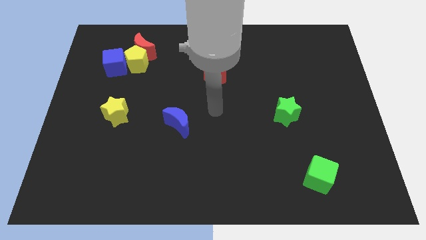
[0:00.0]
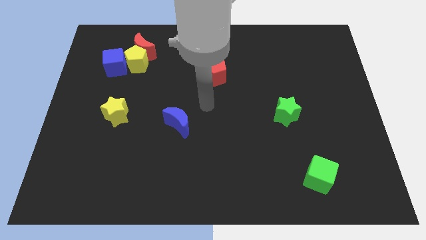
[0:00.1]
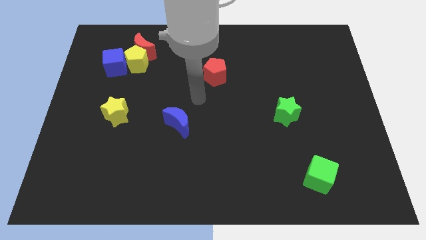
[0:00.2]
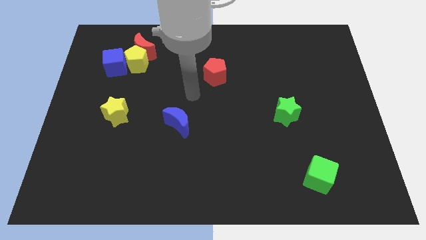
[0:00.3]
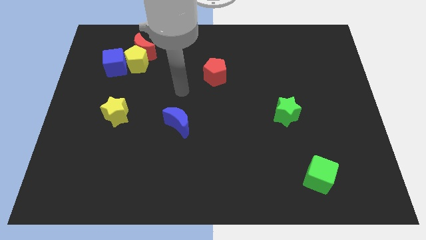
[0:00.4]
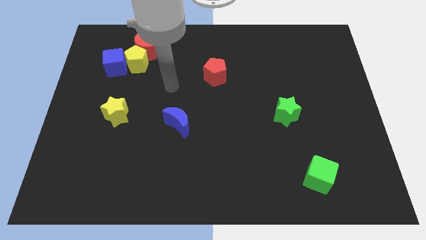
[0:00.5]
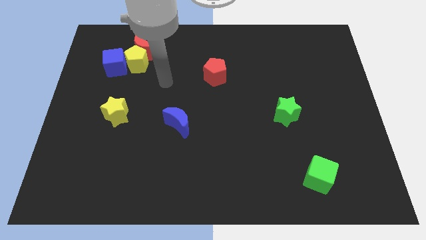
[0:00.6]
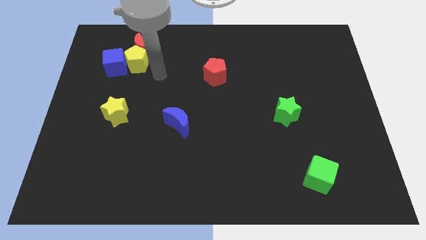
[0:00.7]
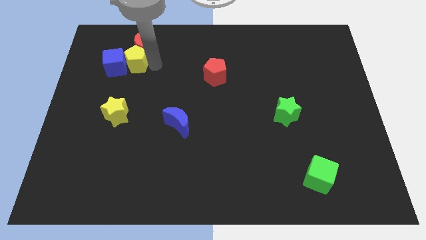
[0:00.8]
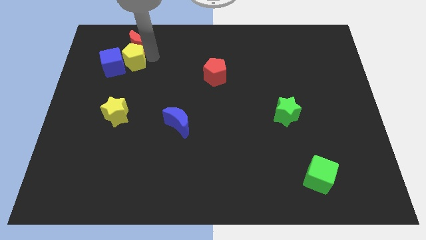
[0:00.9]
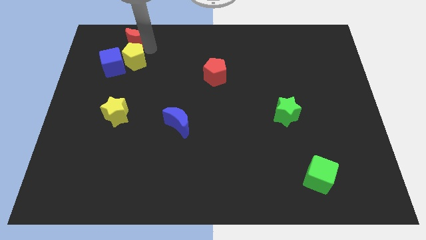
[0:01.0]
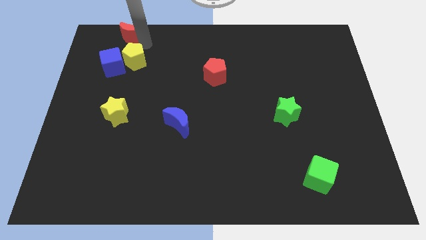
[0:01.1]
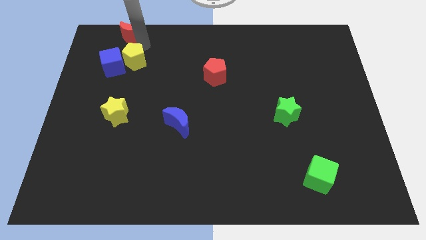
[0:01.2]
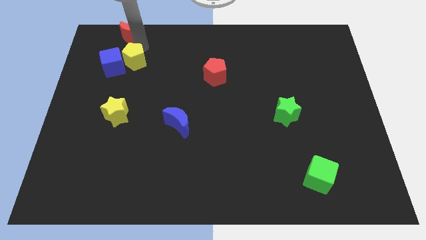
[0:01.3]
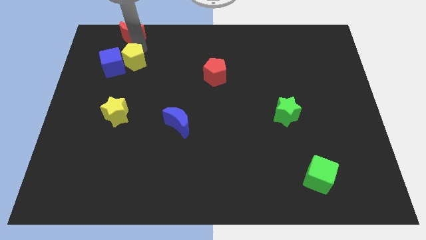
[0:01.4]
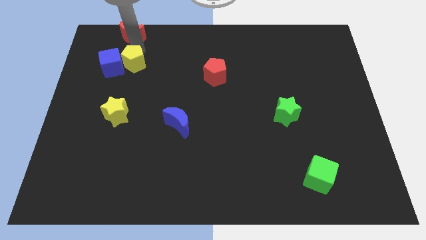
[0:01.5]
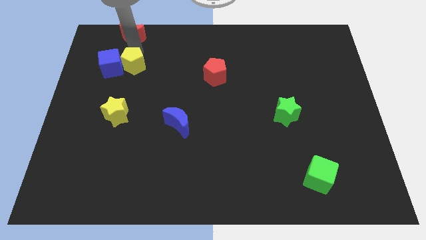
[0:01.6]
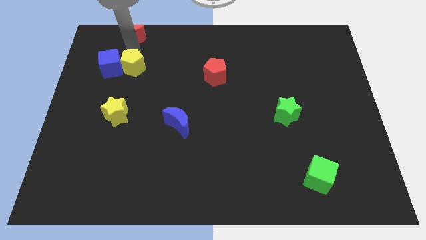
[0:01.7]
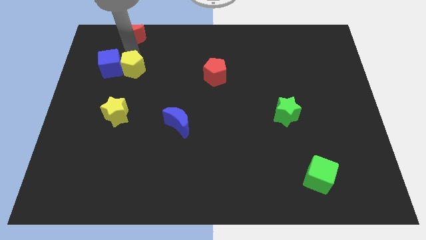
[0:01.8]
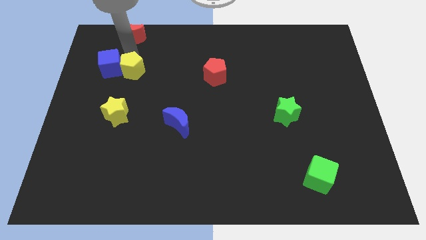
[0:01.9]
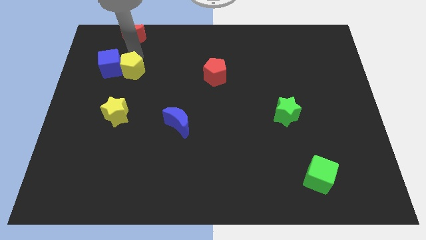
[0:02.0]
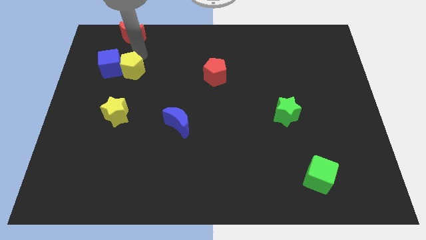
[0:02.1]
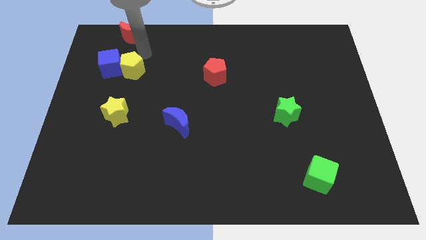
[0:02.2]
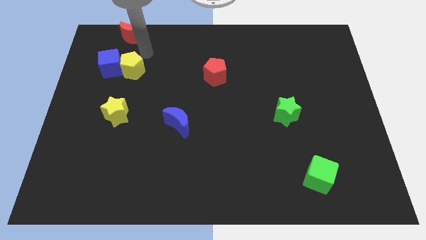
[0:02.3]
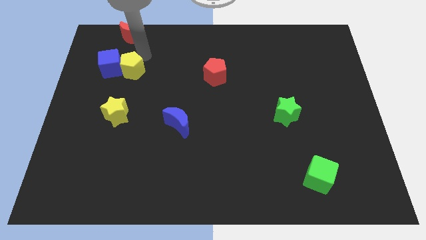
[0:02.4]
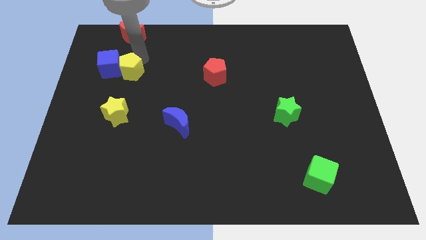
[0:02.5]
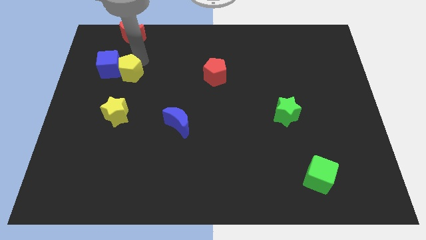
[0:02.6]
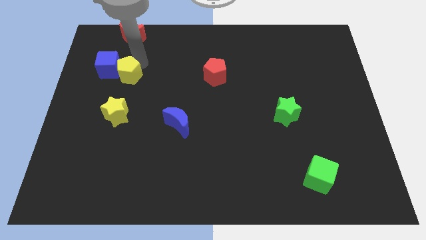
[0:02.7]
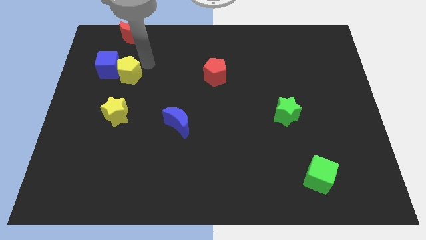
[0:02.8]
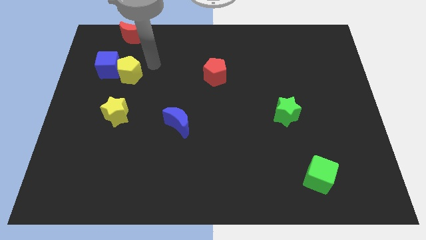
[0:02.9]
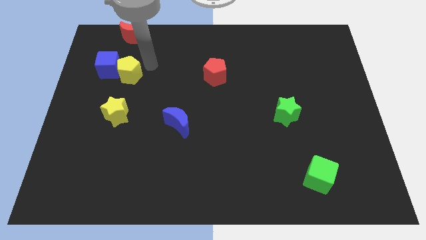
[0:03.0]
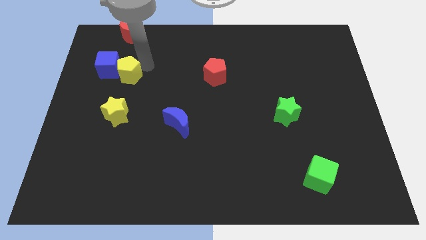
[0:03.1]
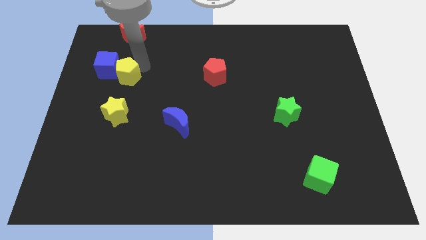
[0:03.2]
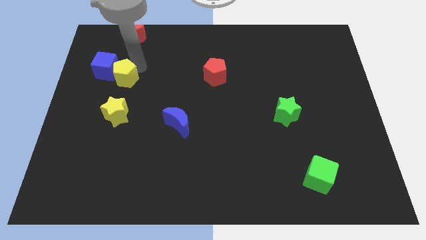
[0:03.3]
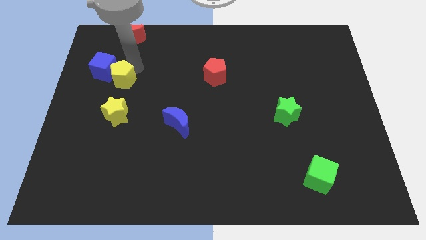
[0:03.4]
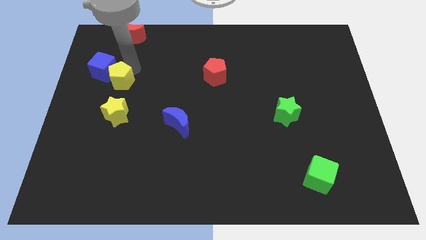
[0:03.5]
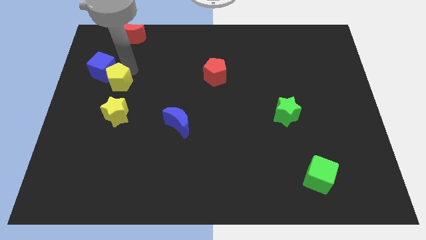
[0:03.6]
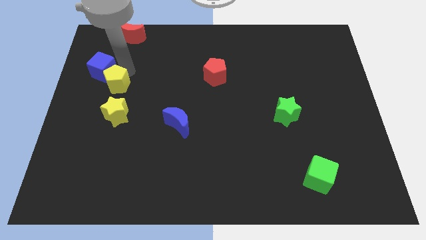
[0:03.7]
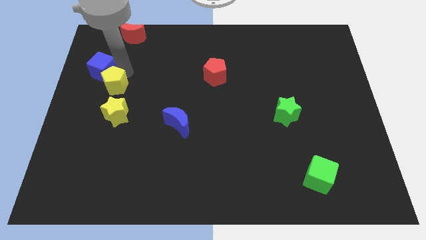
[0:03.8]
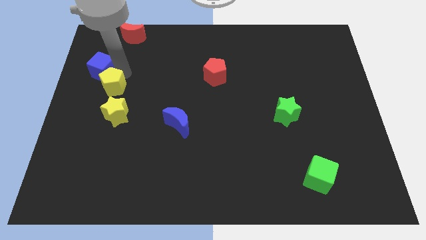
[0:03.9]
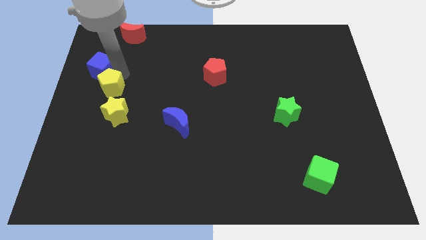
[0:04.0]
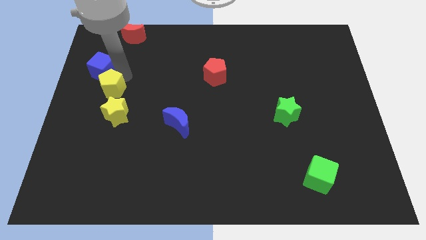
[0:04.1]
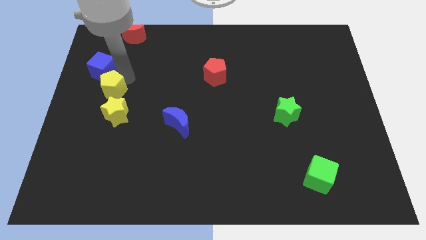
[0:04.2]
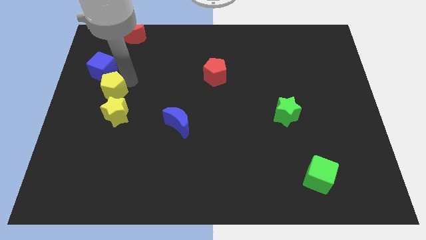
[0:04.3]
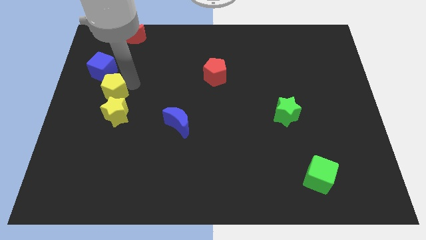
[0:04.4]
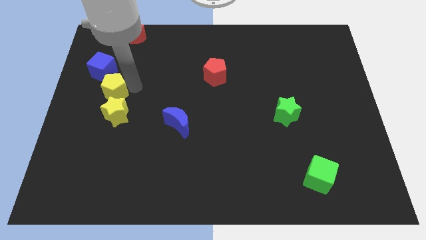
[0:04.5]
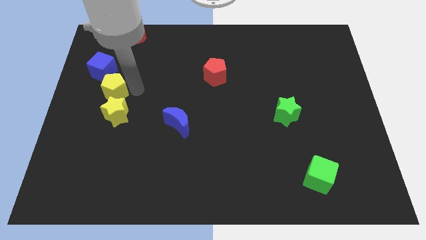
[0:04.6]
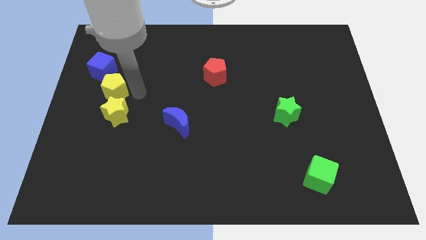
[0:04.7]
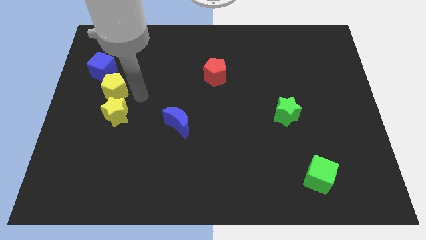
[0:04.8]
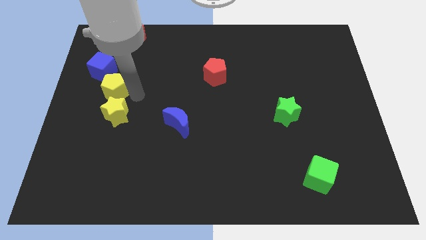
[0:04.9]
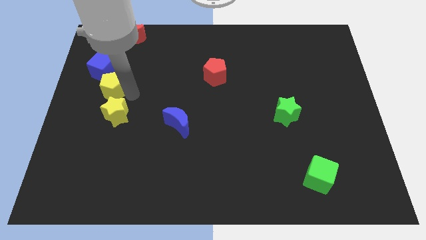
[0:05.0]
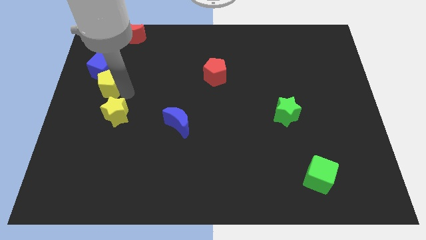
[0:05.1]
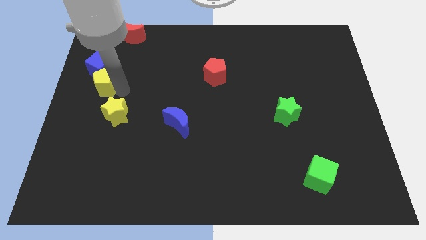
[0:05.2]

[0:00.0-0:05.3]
slide the yellow pentagon to the left side

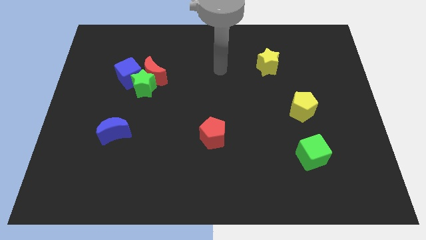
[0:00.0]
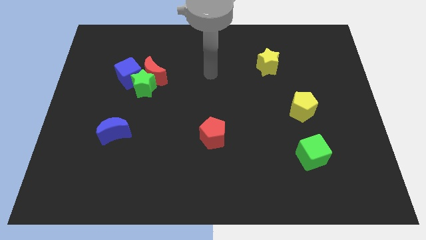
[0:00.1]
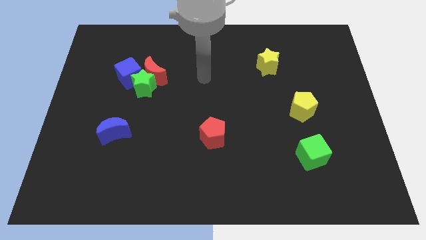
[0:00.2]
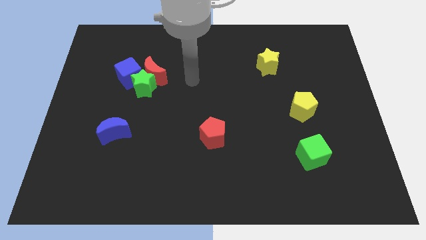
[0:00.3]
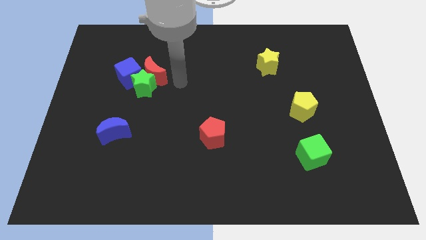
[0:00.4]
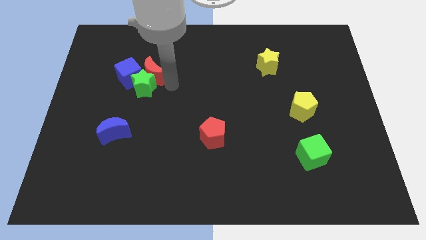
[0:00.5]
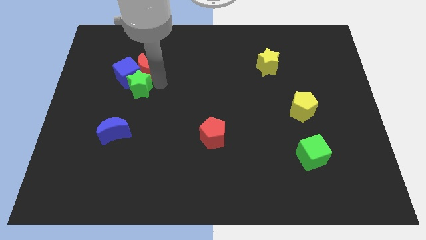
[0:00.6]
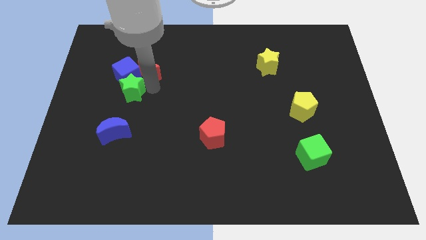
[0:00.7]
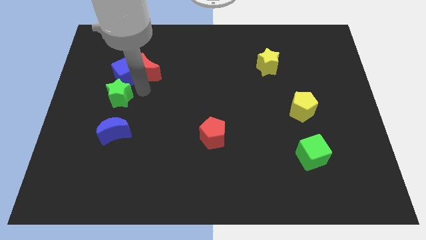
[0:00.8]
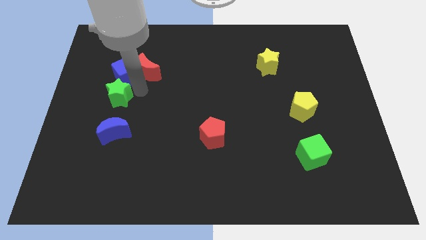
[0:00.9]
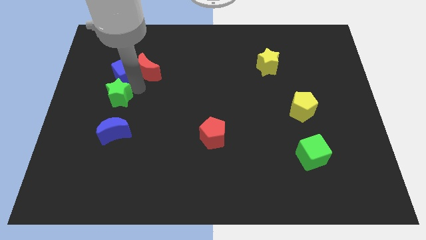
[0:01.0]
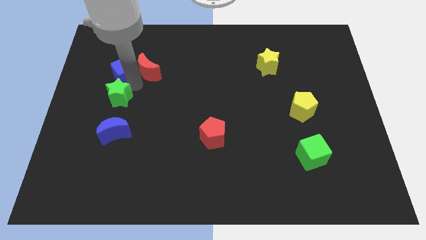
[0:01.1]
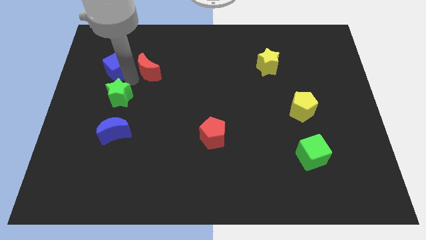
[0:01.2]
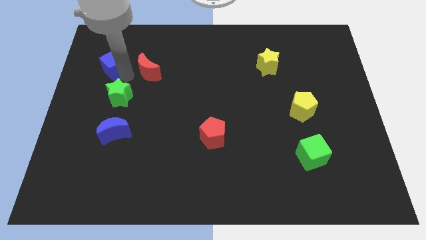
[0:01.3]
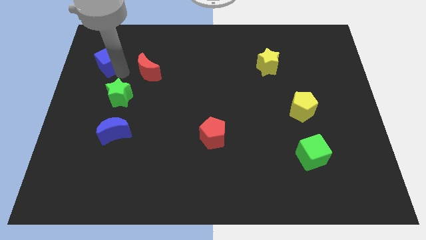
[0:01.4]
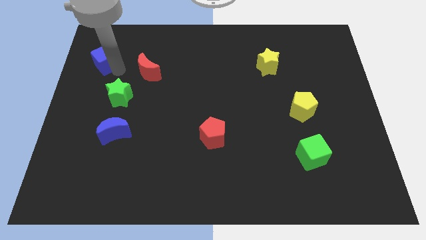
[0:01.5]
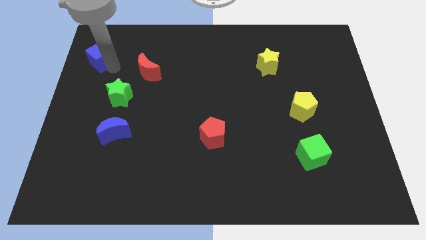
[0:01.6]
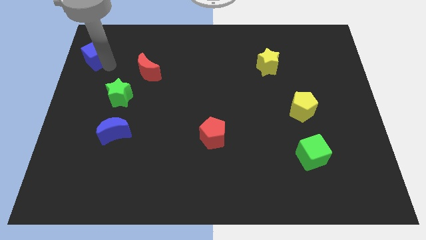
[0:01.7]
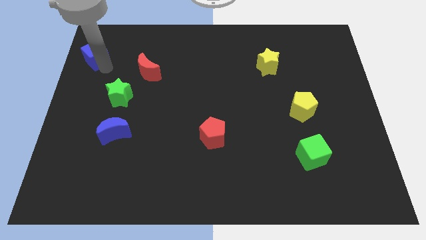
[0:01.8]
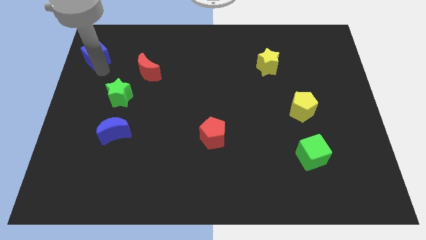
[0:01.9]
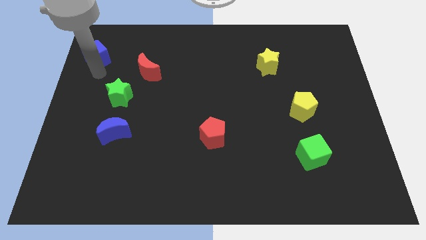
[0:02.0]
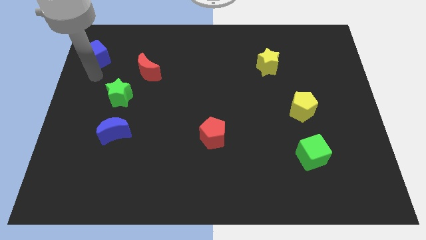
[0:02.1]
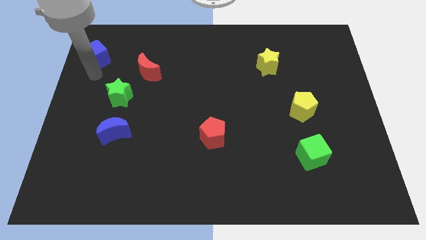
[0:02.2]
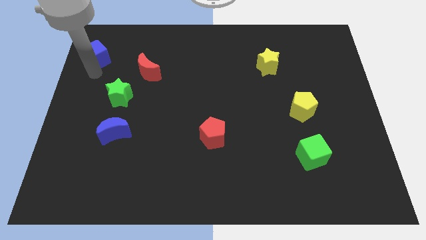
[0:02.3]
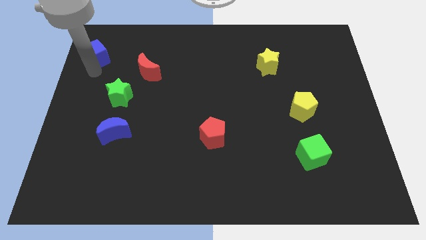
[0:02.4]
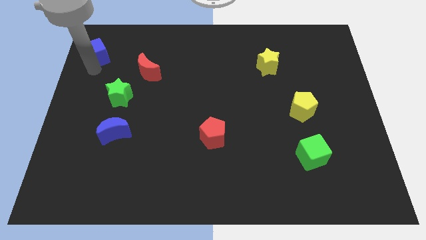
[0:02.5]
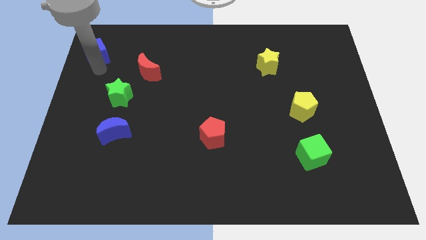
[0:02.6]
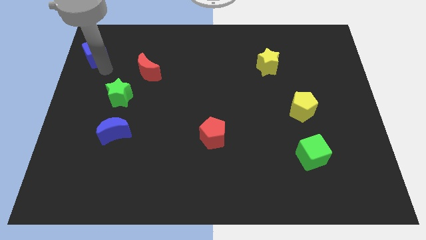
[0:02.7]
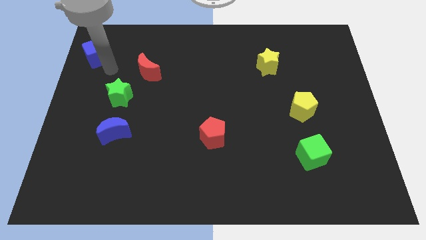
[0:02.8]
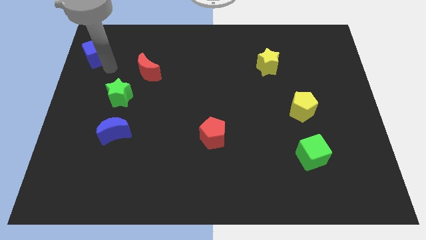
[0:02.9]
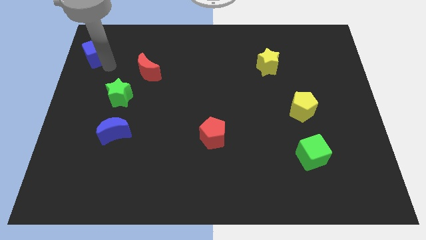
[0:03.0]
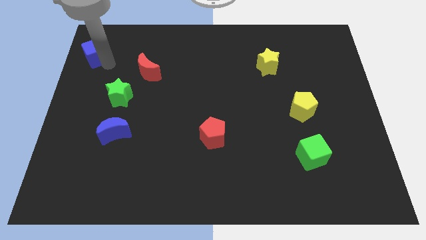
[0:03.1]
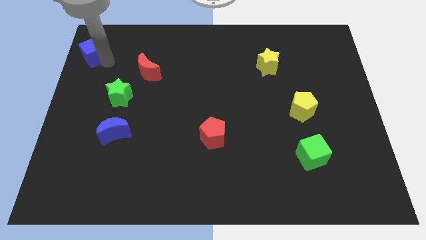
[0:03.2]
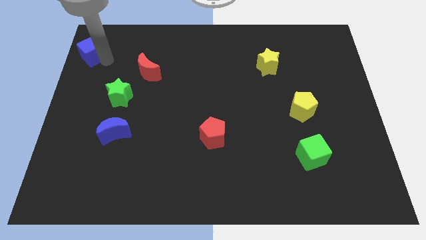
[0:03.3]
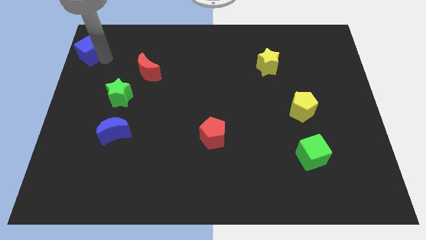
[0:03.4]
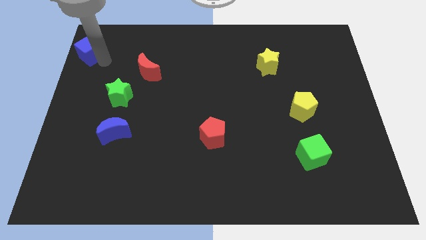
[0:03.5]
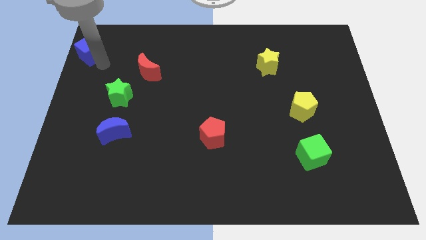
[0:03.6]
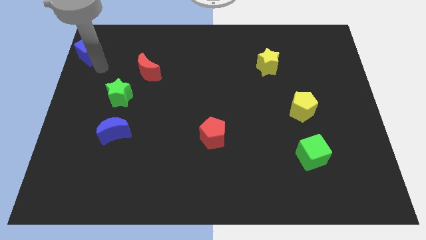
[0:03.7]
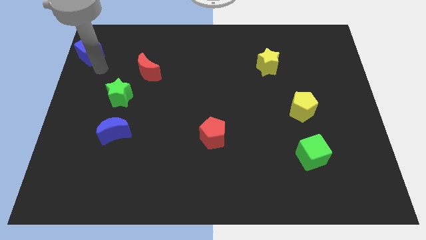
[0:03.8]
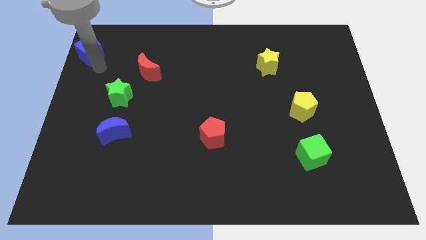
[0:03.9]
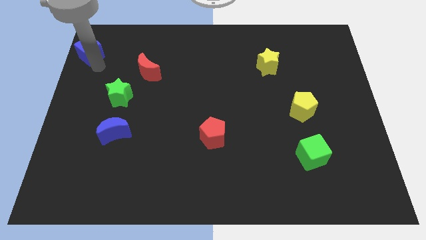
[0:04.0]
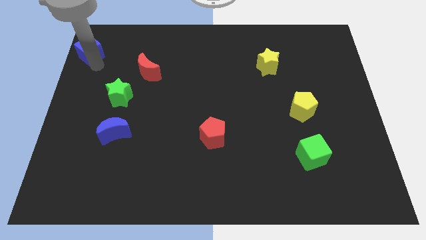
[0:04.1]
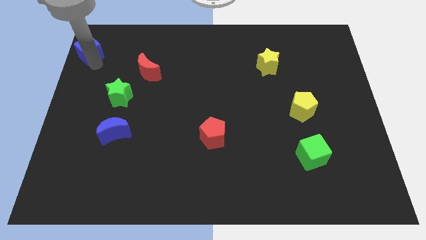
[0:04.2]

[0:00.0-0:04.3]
push the blue cube to the top left of the board
